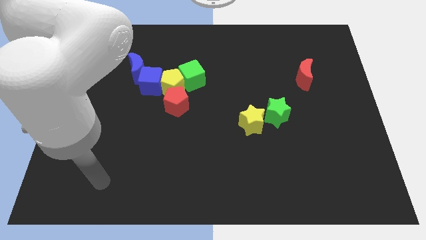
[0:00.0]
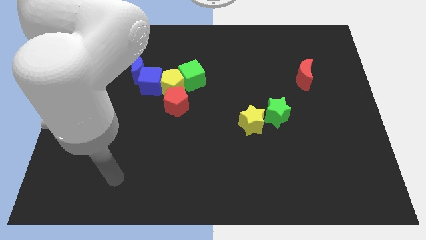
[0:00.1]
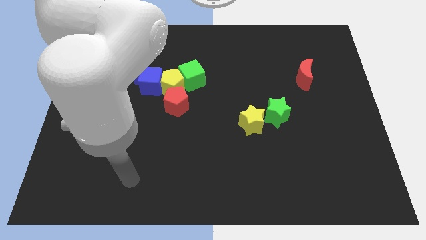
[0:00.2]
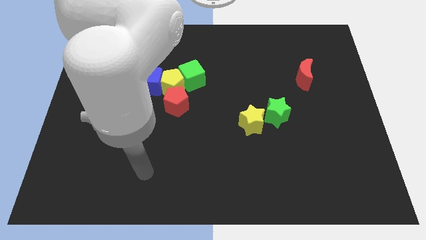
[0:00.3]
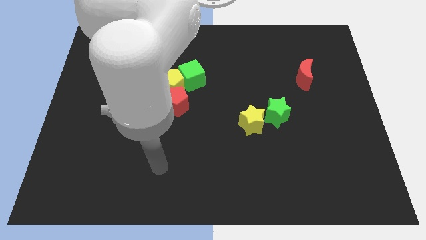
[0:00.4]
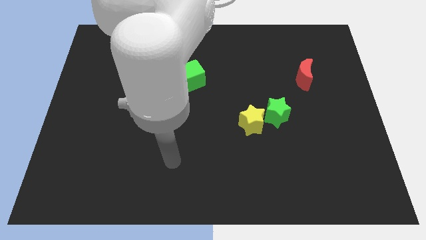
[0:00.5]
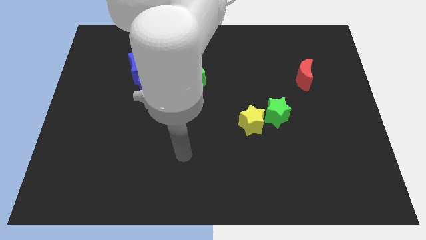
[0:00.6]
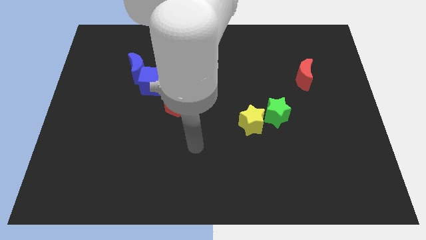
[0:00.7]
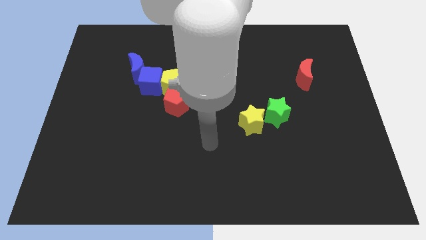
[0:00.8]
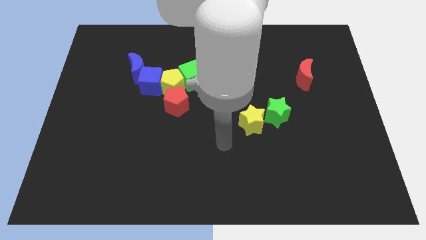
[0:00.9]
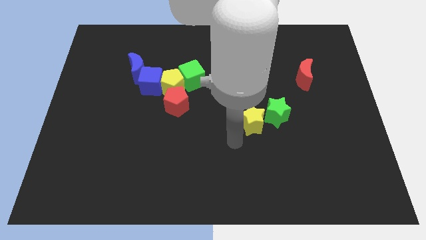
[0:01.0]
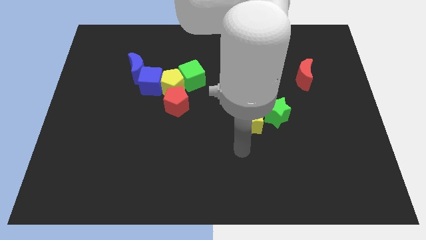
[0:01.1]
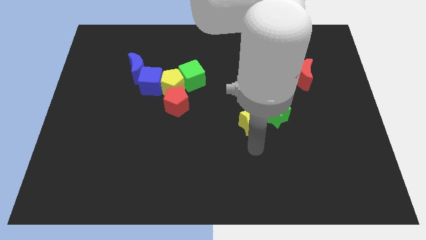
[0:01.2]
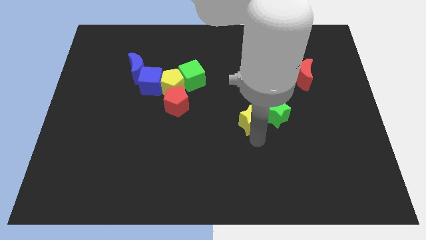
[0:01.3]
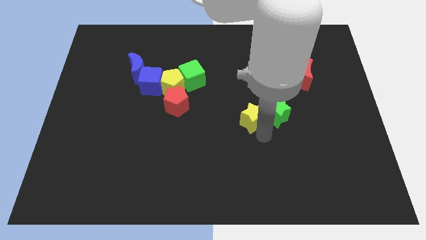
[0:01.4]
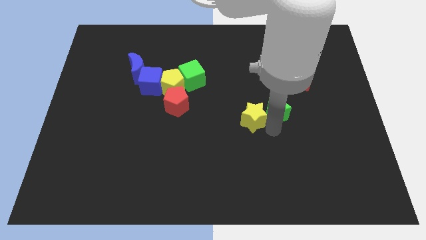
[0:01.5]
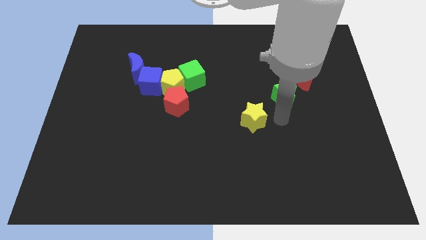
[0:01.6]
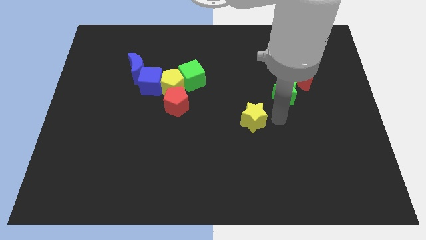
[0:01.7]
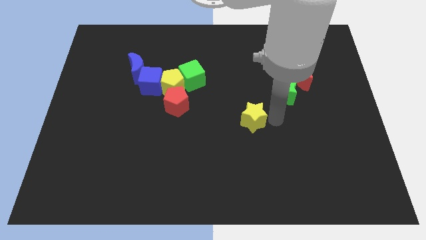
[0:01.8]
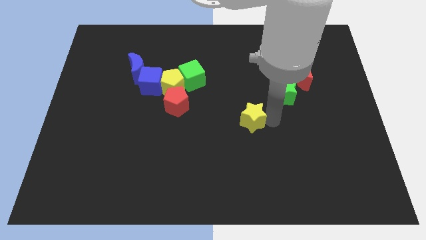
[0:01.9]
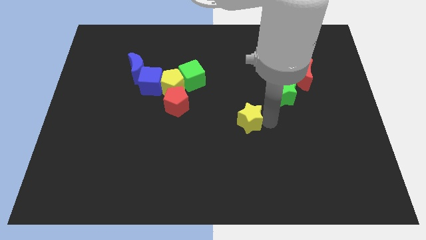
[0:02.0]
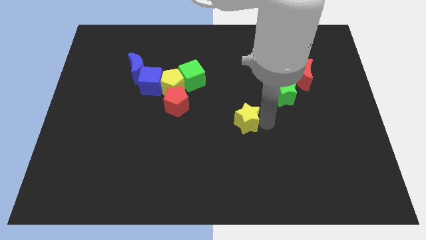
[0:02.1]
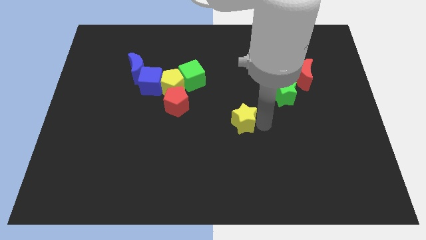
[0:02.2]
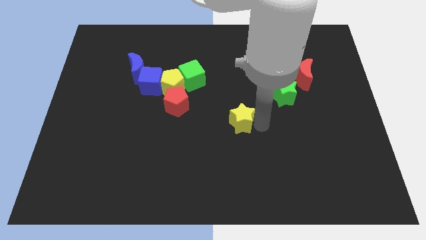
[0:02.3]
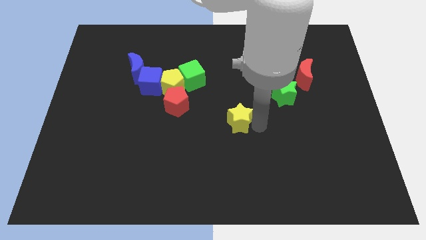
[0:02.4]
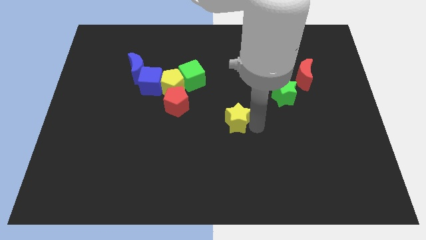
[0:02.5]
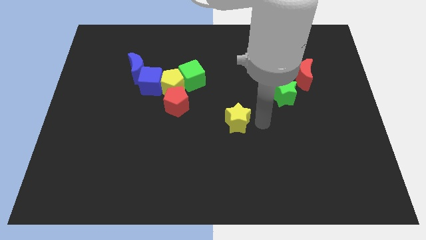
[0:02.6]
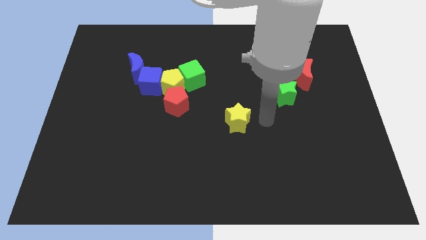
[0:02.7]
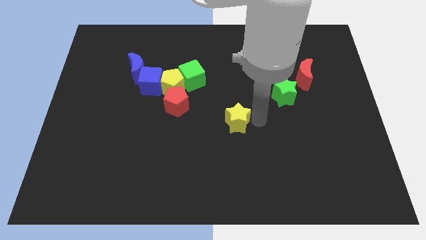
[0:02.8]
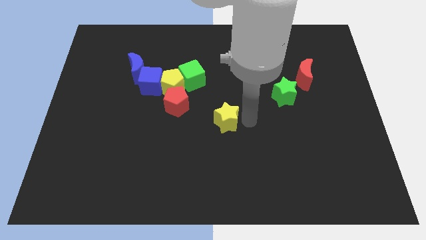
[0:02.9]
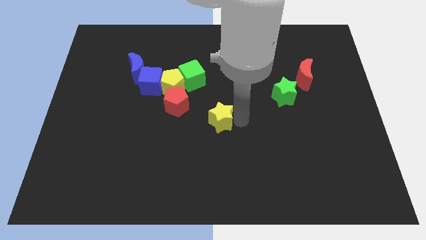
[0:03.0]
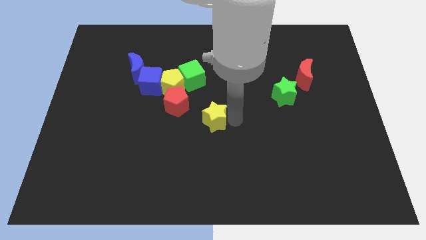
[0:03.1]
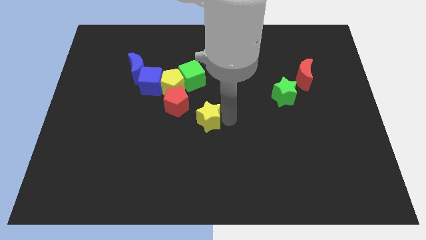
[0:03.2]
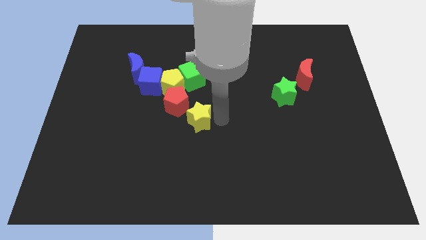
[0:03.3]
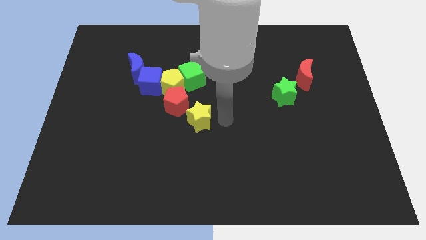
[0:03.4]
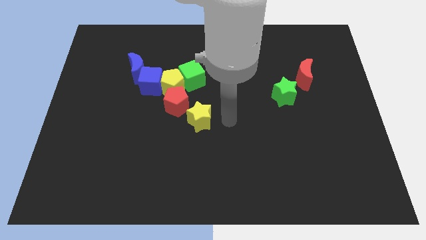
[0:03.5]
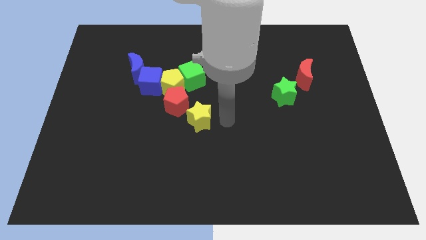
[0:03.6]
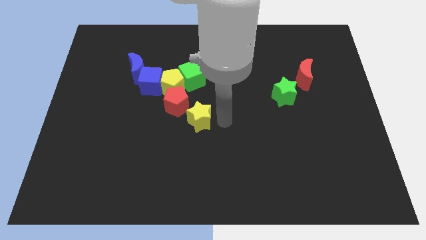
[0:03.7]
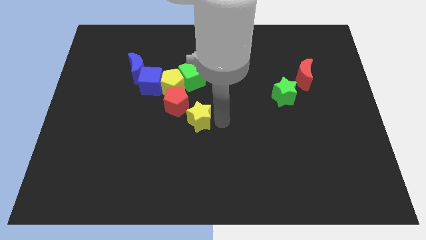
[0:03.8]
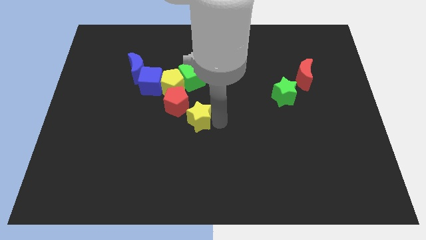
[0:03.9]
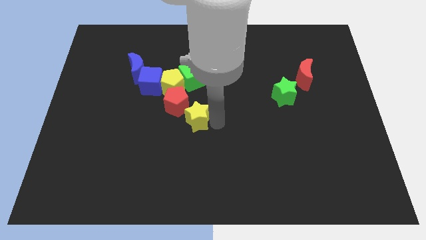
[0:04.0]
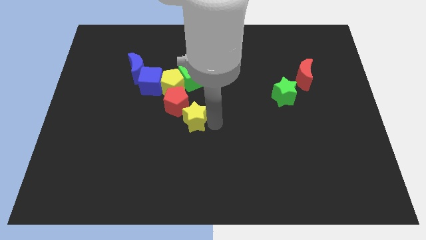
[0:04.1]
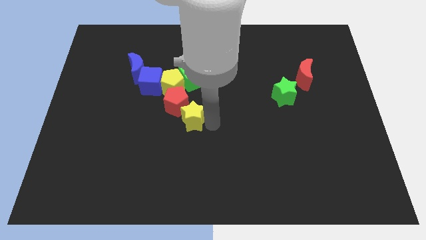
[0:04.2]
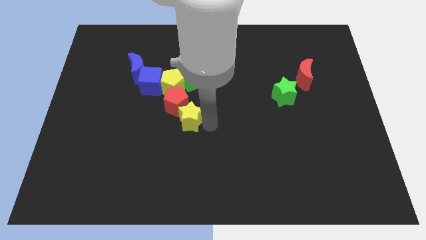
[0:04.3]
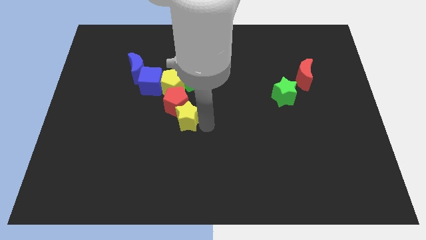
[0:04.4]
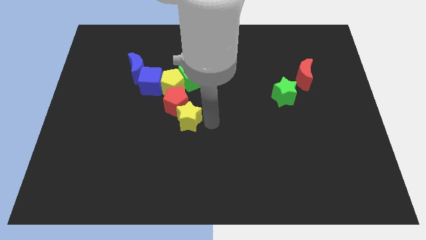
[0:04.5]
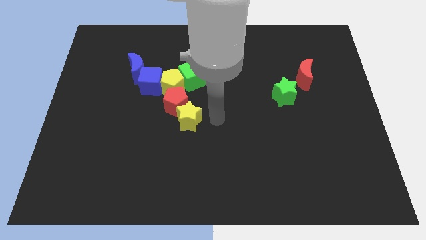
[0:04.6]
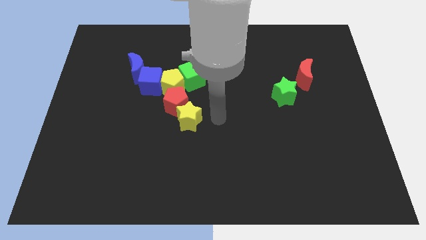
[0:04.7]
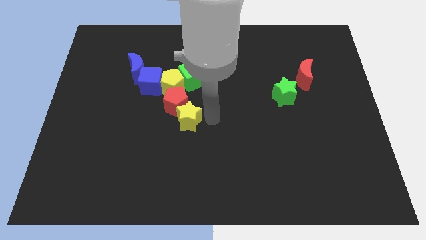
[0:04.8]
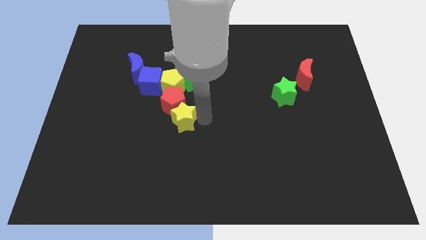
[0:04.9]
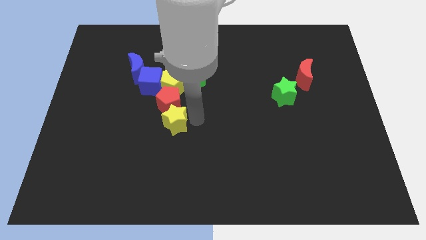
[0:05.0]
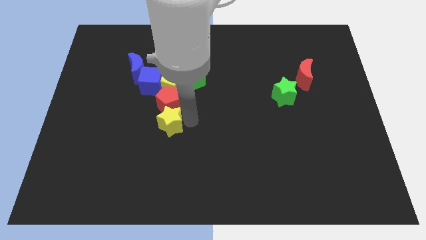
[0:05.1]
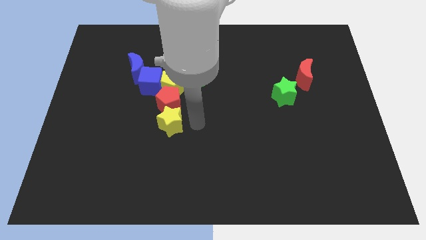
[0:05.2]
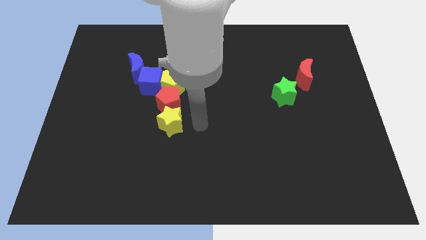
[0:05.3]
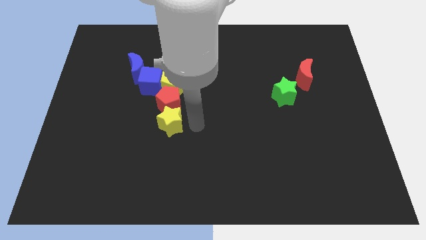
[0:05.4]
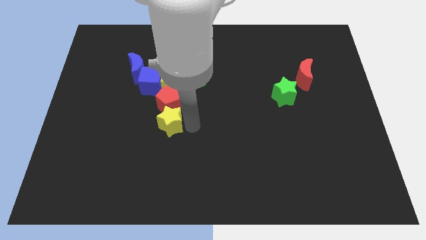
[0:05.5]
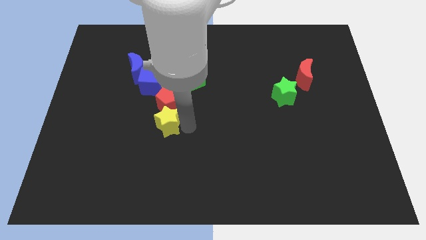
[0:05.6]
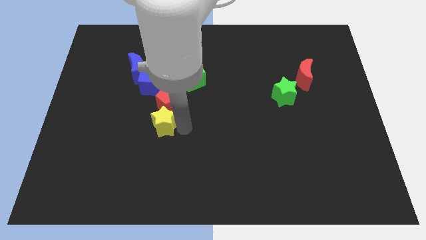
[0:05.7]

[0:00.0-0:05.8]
slide the yellow star to the left

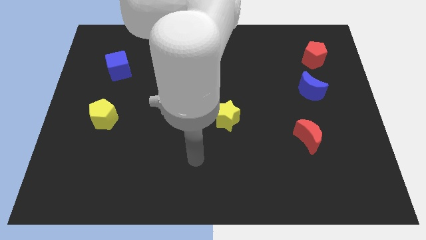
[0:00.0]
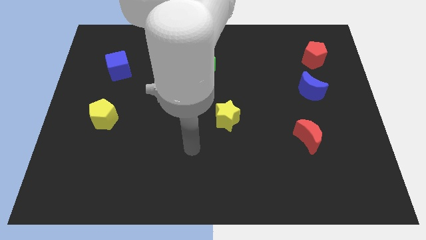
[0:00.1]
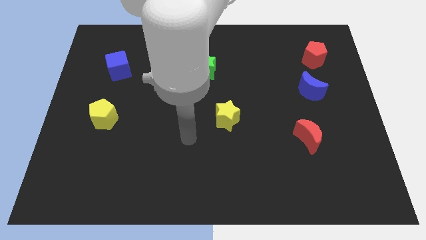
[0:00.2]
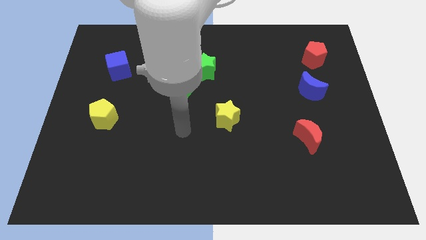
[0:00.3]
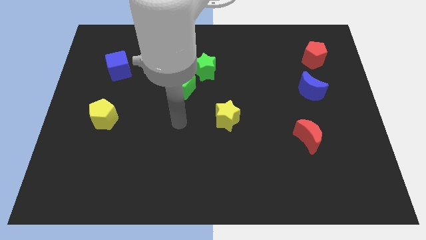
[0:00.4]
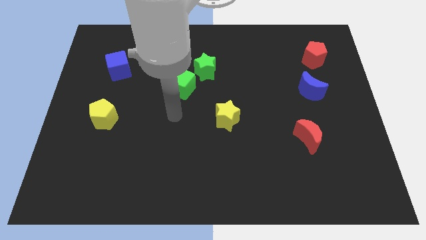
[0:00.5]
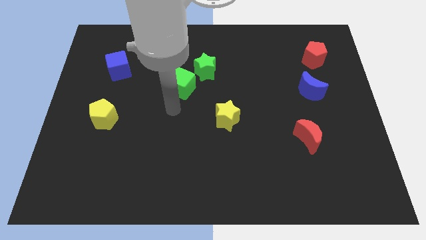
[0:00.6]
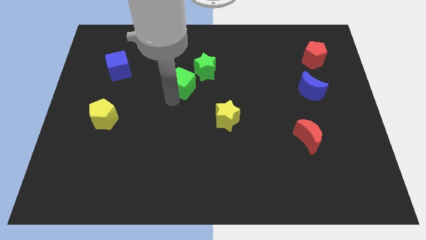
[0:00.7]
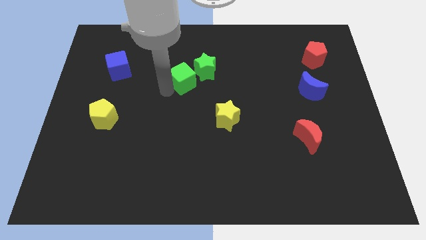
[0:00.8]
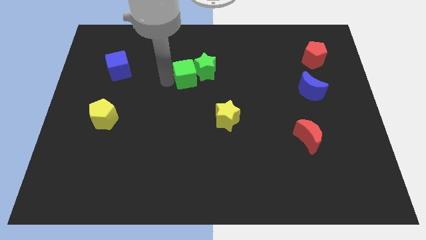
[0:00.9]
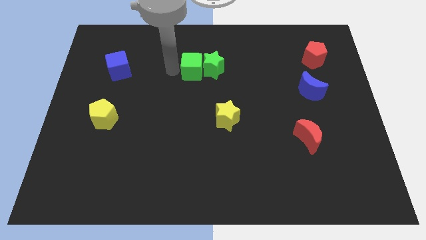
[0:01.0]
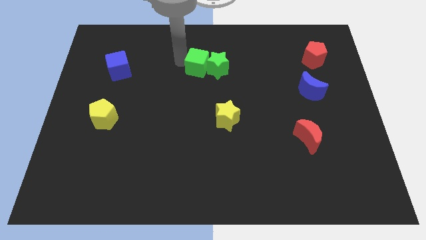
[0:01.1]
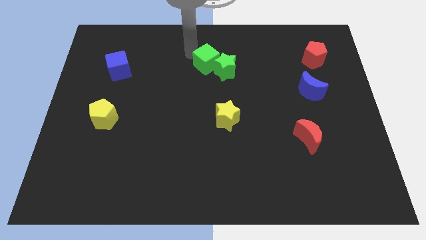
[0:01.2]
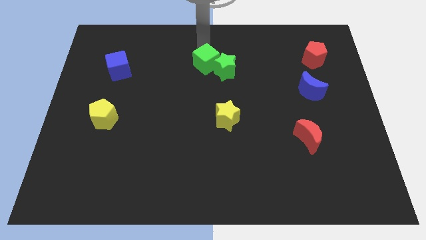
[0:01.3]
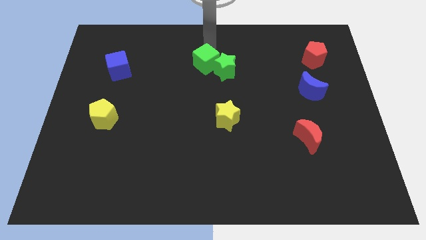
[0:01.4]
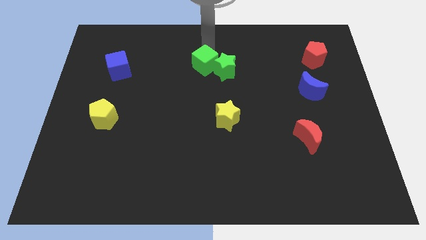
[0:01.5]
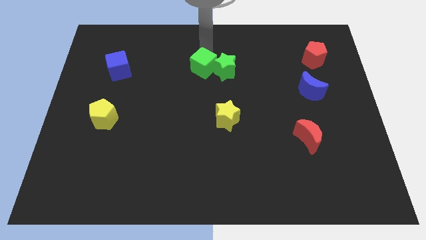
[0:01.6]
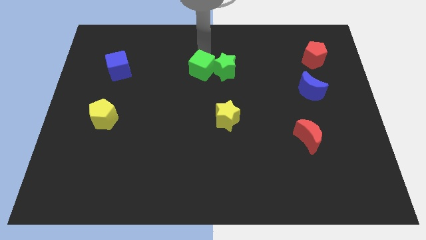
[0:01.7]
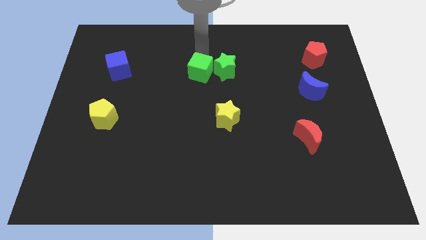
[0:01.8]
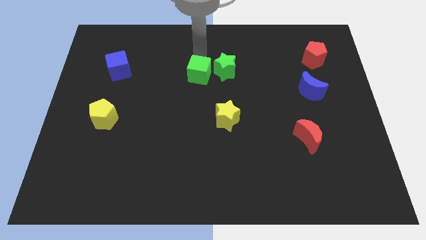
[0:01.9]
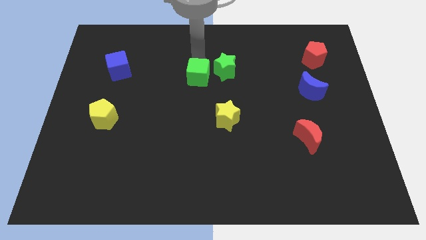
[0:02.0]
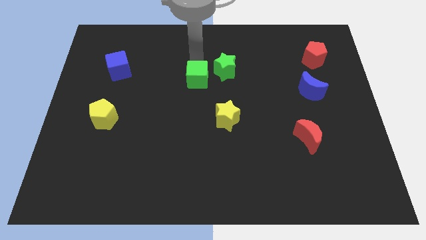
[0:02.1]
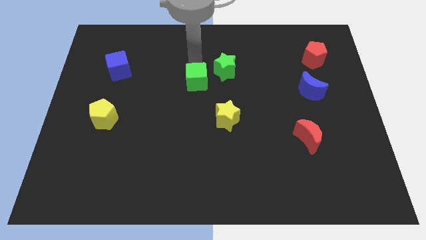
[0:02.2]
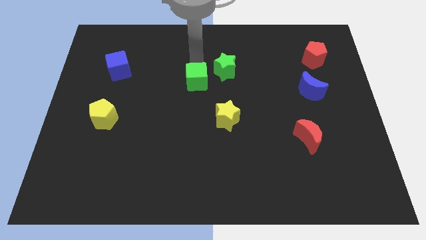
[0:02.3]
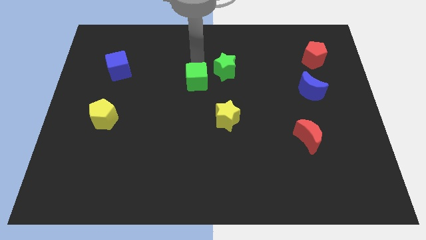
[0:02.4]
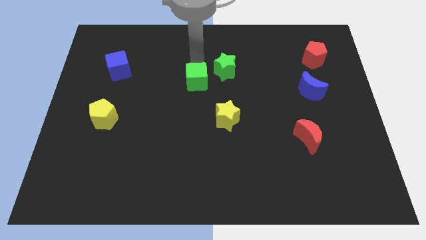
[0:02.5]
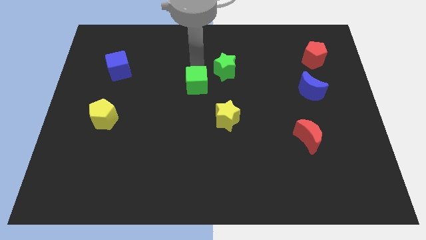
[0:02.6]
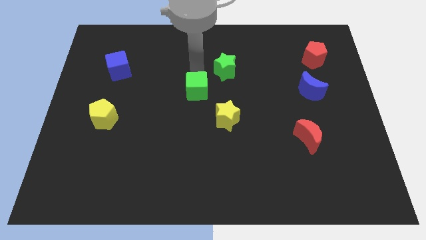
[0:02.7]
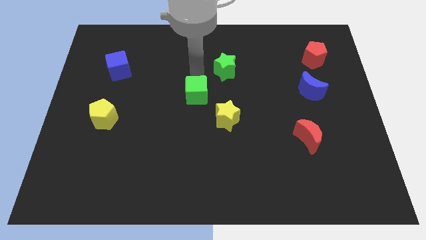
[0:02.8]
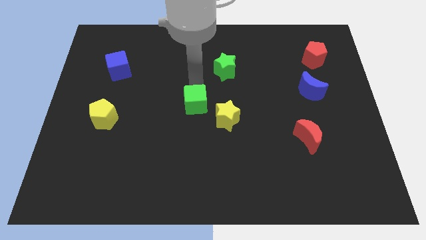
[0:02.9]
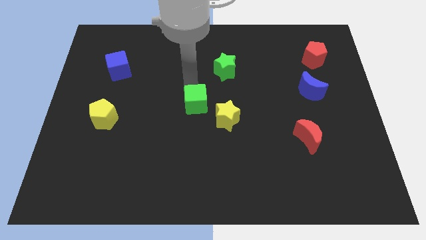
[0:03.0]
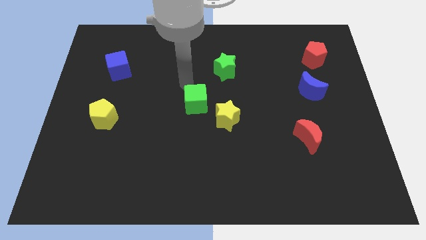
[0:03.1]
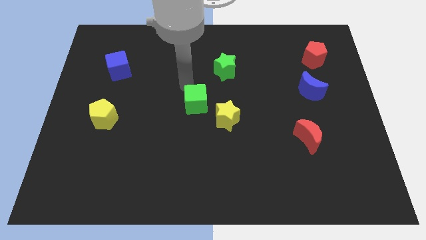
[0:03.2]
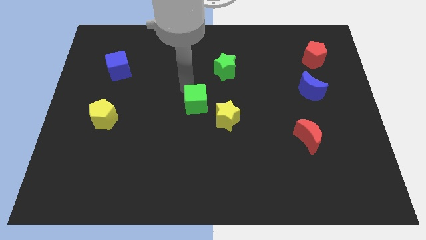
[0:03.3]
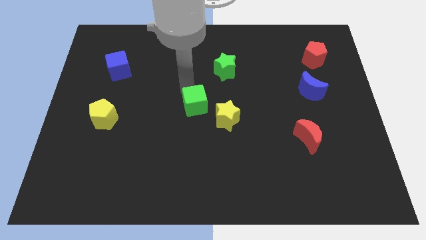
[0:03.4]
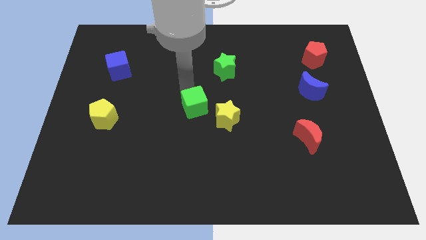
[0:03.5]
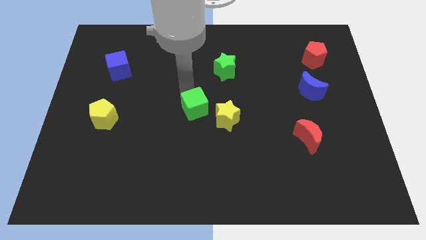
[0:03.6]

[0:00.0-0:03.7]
slide the green cube downwards and to the right diagonally somewhat
